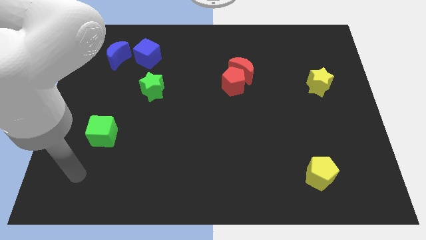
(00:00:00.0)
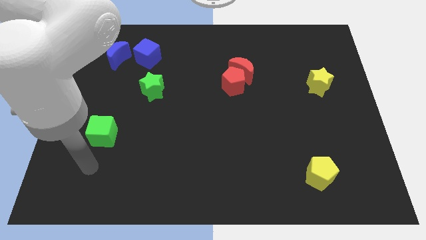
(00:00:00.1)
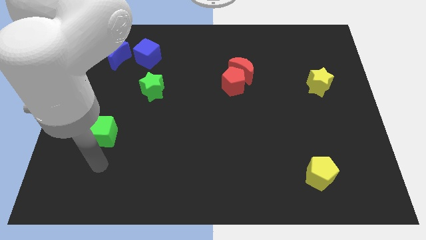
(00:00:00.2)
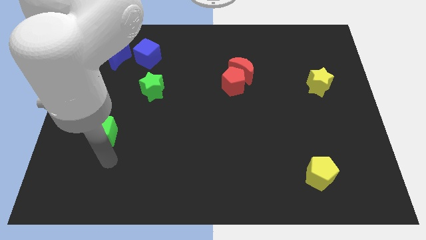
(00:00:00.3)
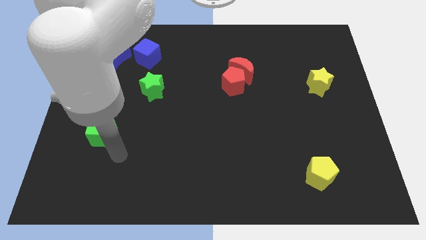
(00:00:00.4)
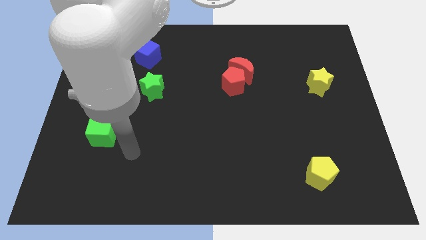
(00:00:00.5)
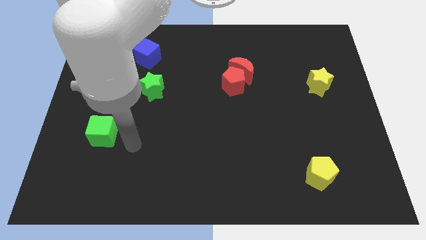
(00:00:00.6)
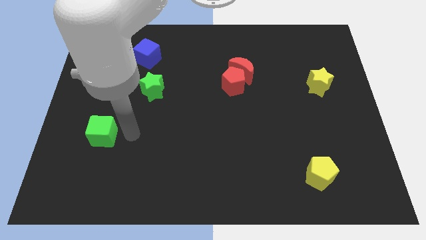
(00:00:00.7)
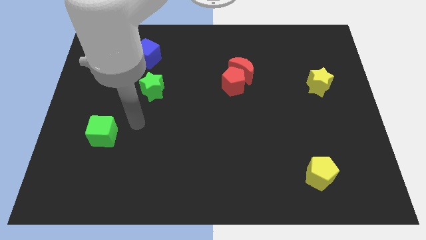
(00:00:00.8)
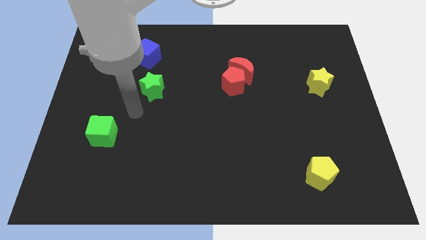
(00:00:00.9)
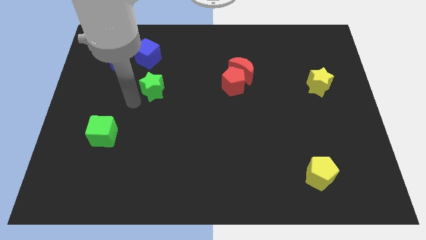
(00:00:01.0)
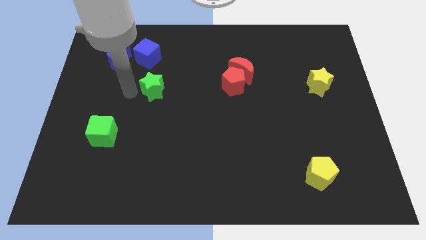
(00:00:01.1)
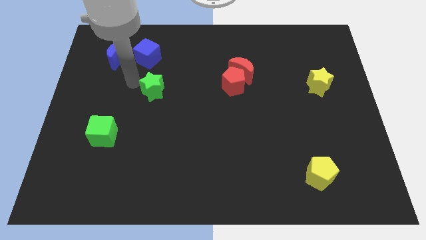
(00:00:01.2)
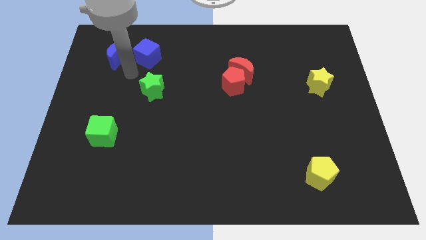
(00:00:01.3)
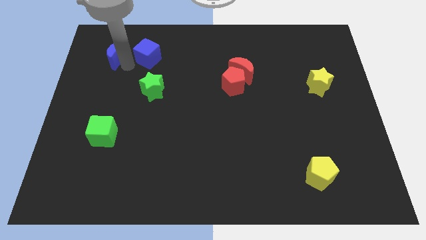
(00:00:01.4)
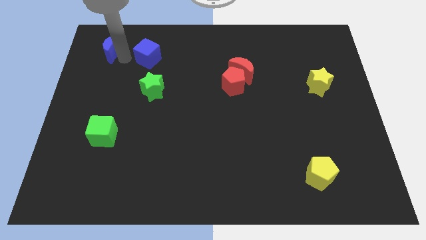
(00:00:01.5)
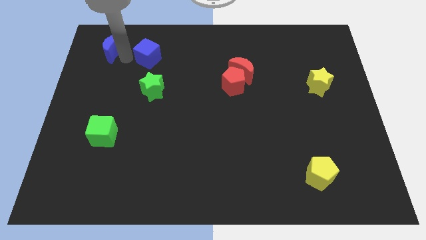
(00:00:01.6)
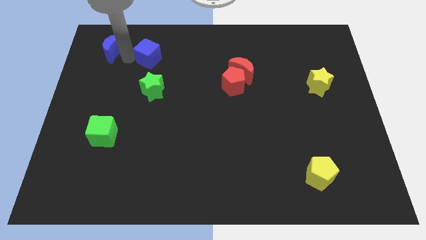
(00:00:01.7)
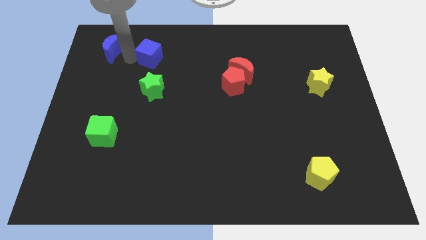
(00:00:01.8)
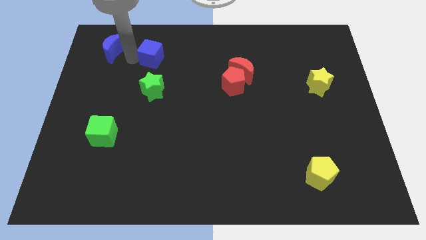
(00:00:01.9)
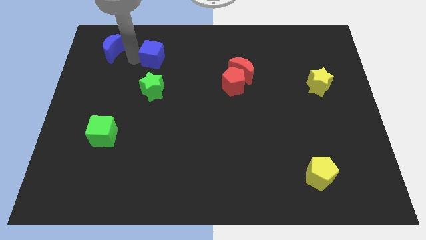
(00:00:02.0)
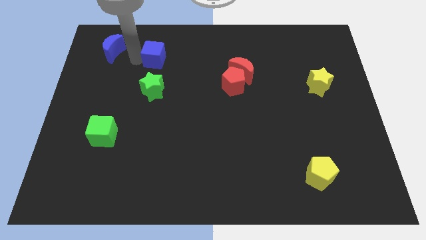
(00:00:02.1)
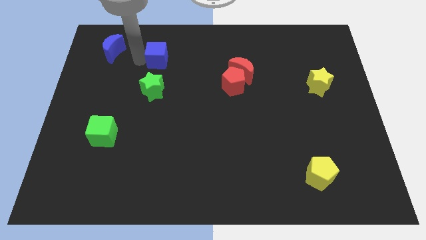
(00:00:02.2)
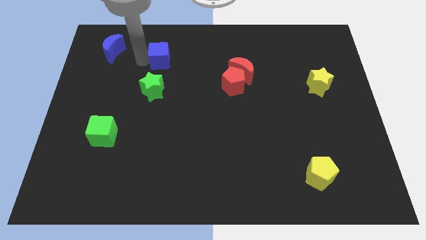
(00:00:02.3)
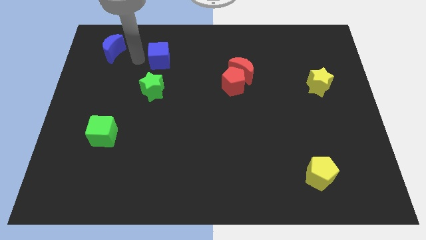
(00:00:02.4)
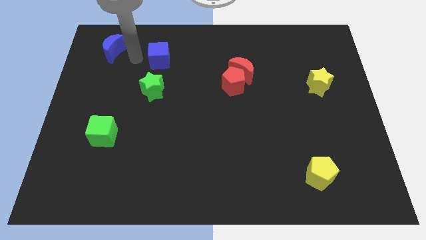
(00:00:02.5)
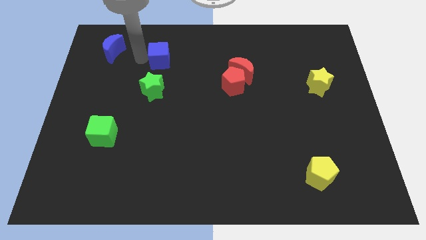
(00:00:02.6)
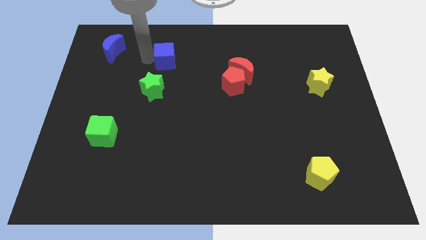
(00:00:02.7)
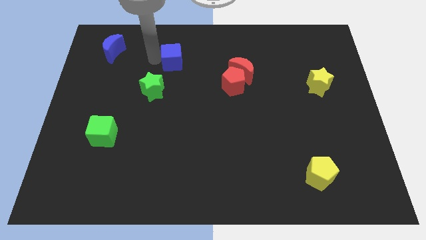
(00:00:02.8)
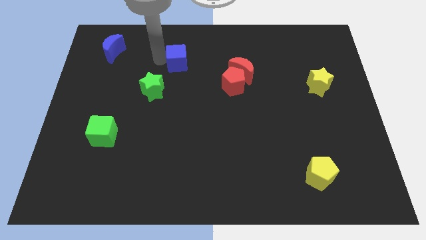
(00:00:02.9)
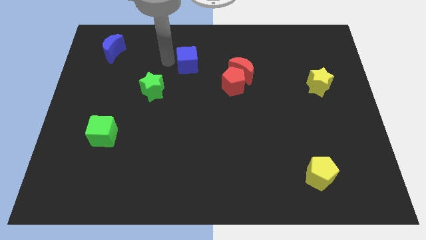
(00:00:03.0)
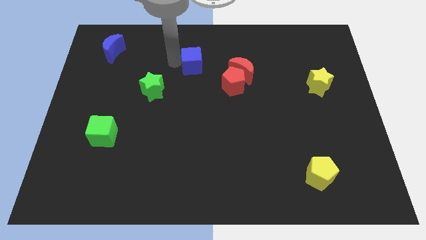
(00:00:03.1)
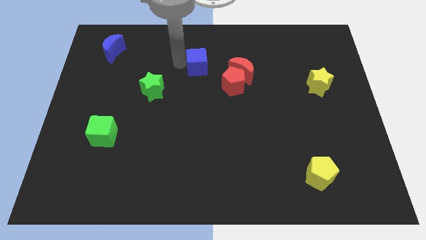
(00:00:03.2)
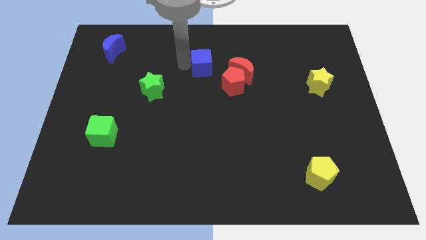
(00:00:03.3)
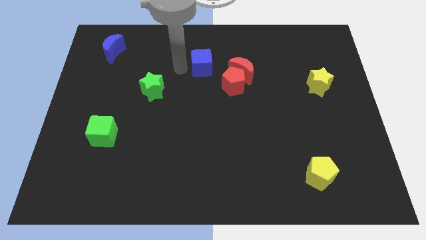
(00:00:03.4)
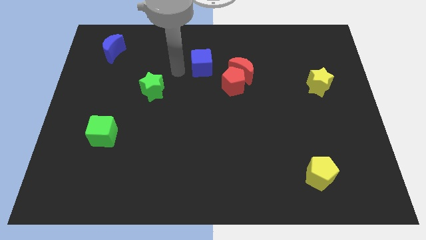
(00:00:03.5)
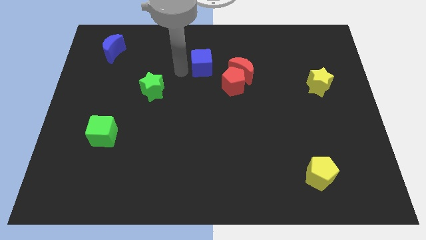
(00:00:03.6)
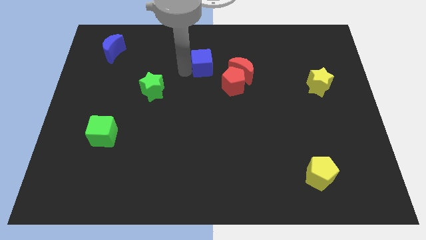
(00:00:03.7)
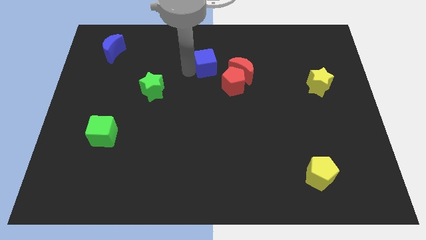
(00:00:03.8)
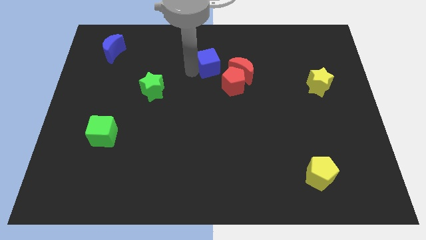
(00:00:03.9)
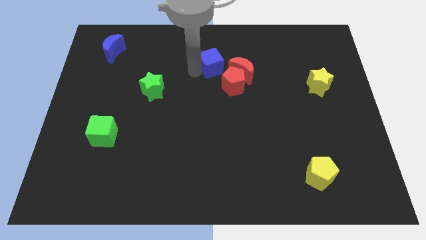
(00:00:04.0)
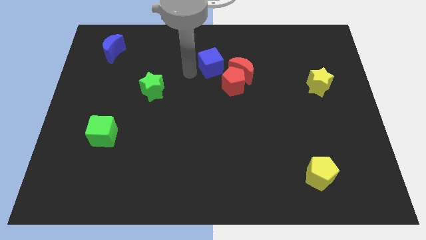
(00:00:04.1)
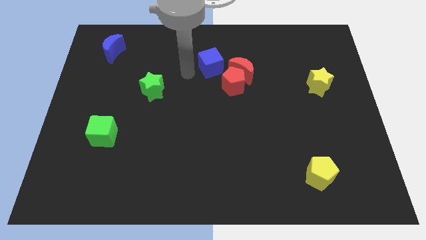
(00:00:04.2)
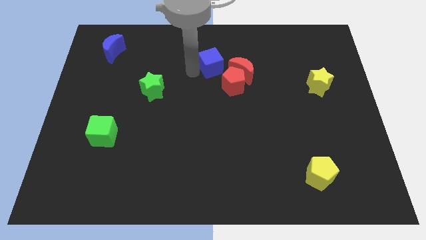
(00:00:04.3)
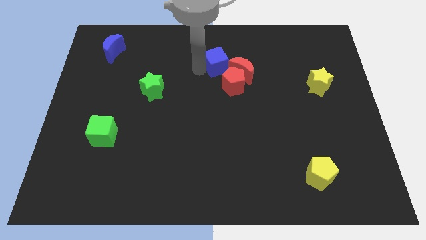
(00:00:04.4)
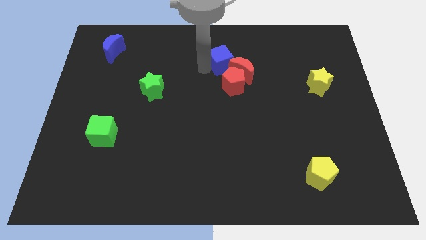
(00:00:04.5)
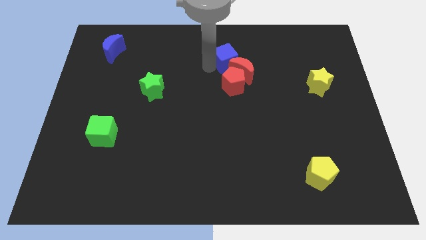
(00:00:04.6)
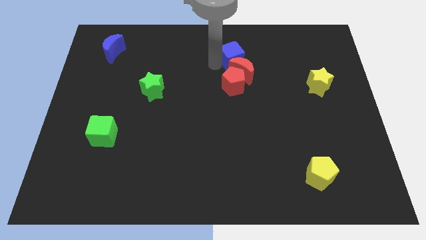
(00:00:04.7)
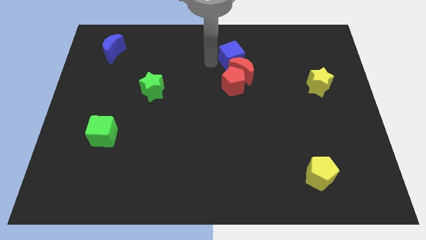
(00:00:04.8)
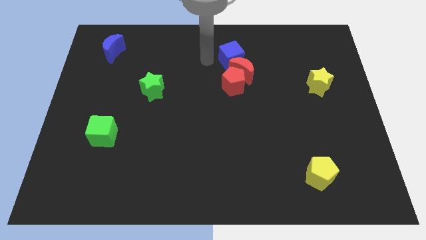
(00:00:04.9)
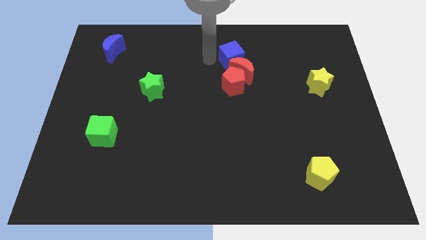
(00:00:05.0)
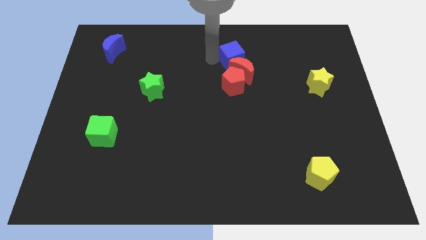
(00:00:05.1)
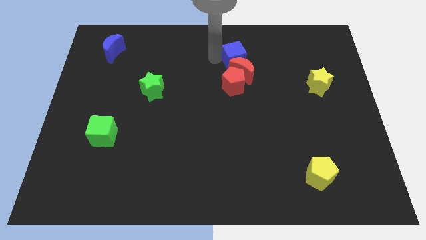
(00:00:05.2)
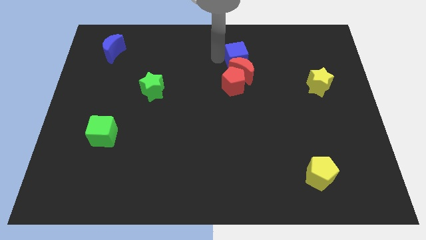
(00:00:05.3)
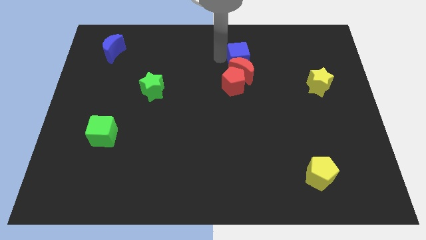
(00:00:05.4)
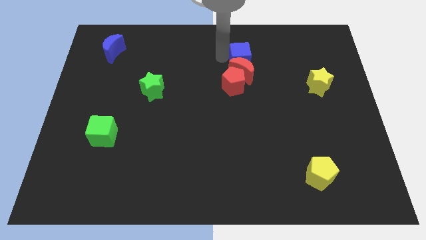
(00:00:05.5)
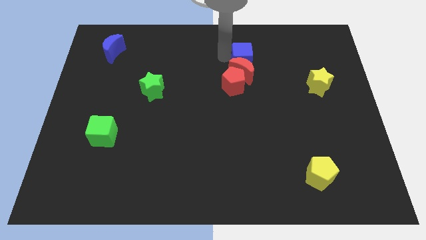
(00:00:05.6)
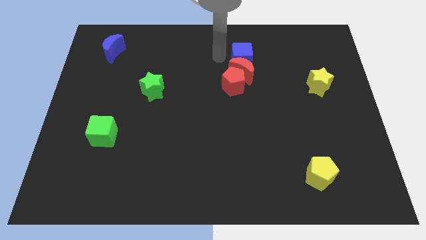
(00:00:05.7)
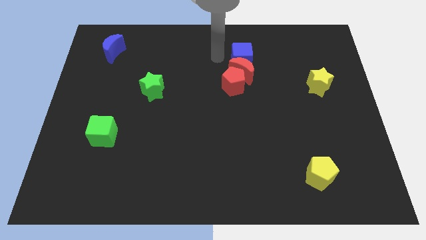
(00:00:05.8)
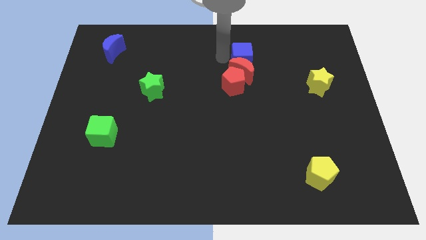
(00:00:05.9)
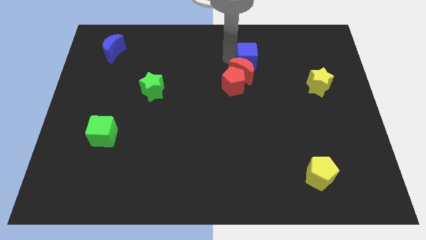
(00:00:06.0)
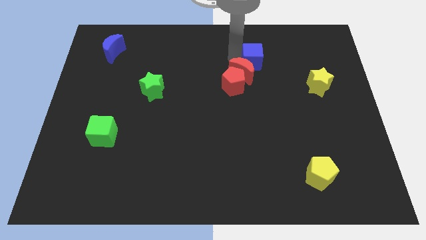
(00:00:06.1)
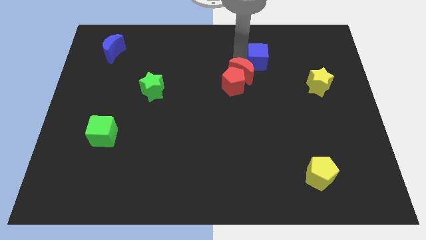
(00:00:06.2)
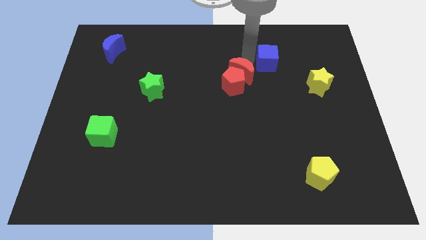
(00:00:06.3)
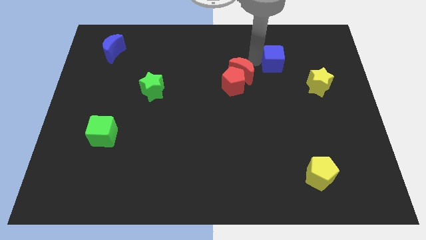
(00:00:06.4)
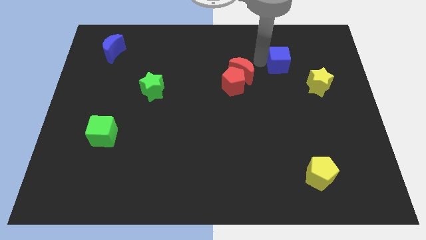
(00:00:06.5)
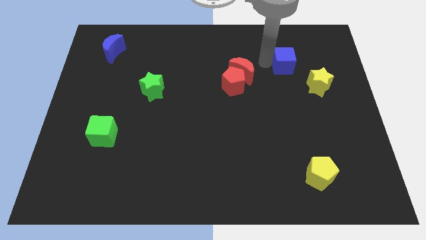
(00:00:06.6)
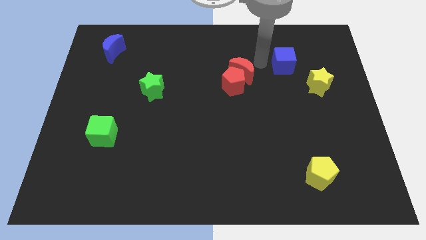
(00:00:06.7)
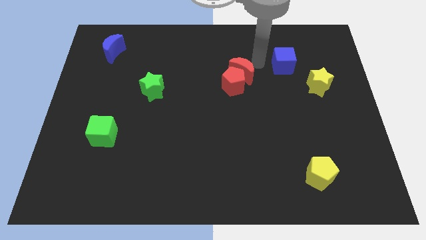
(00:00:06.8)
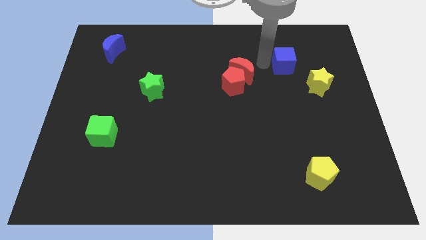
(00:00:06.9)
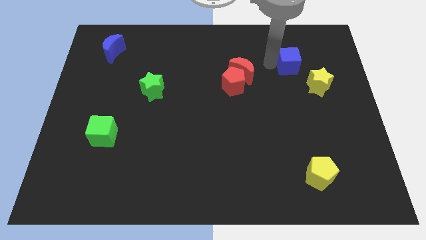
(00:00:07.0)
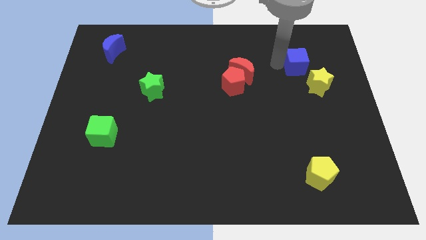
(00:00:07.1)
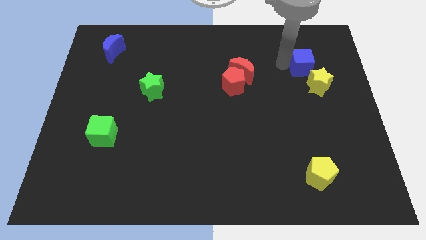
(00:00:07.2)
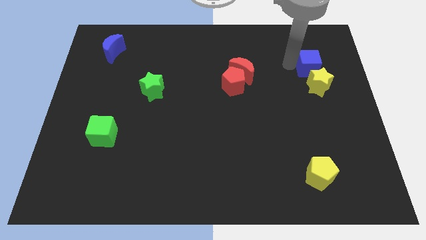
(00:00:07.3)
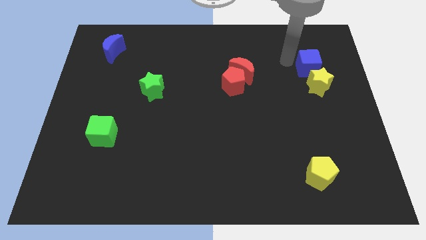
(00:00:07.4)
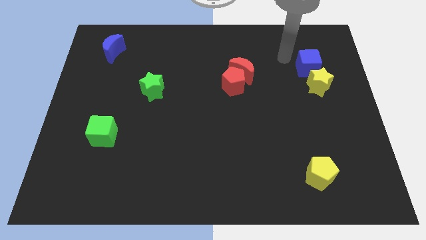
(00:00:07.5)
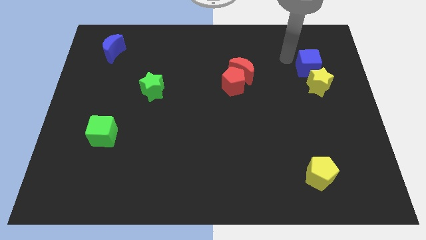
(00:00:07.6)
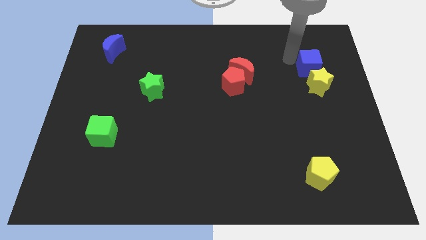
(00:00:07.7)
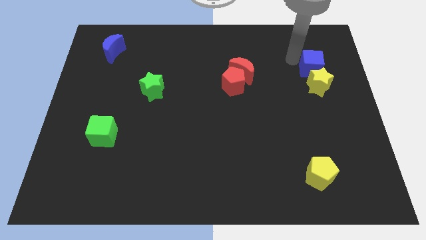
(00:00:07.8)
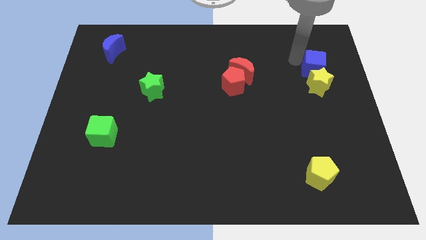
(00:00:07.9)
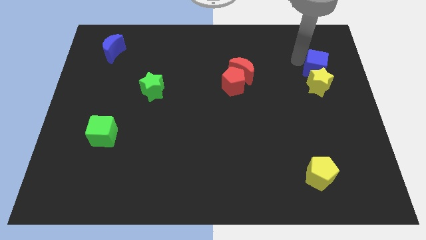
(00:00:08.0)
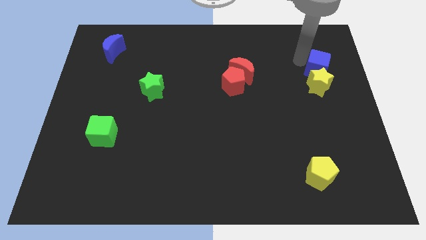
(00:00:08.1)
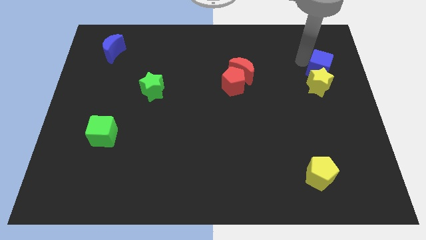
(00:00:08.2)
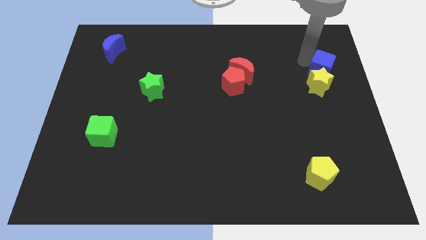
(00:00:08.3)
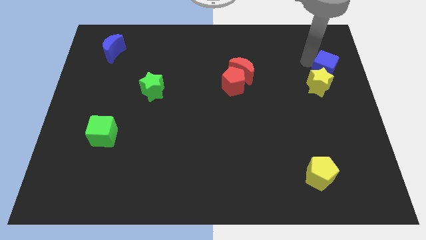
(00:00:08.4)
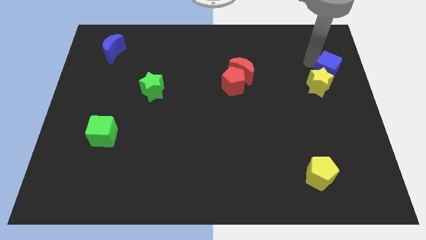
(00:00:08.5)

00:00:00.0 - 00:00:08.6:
push the blue cube to the right side of the board
